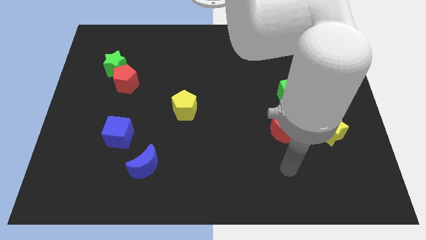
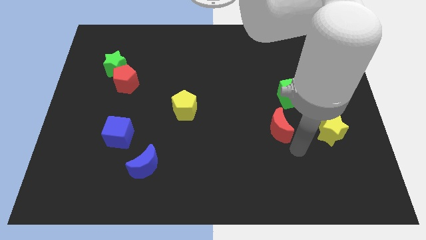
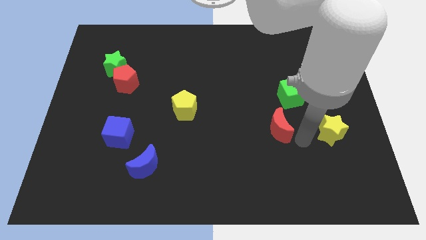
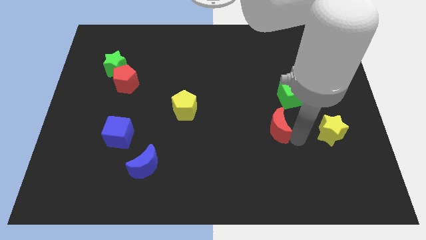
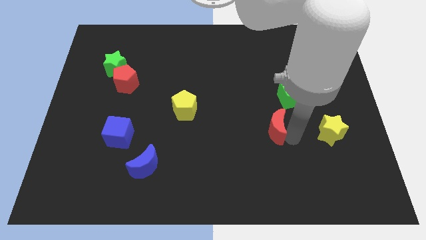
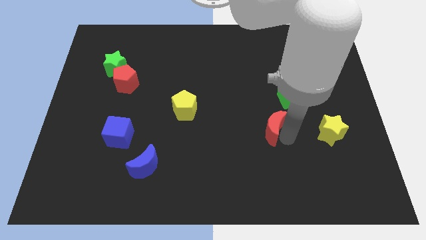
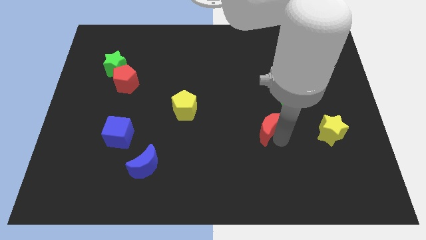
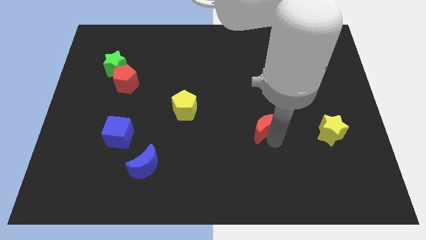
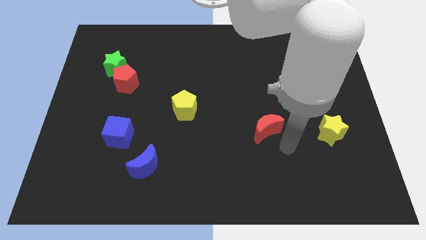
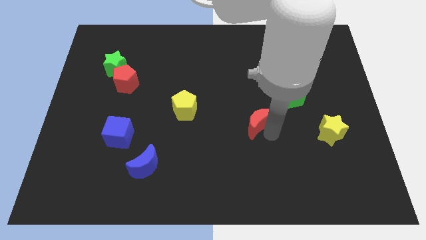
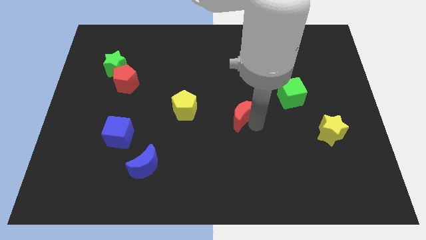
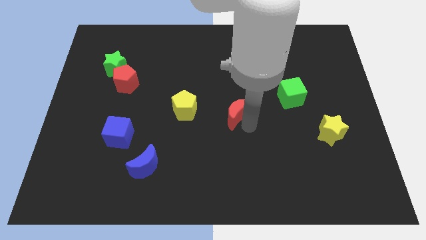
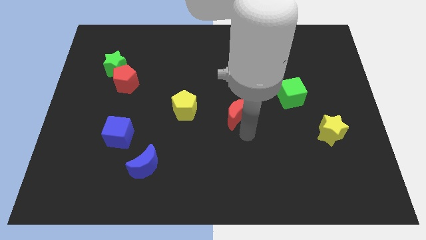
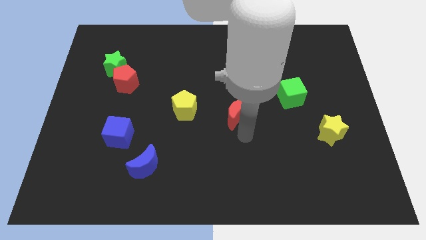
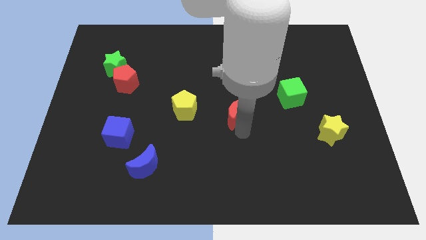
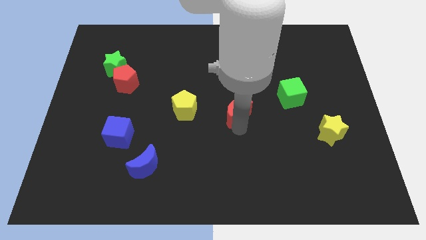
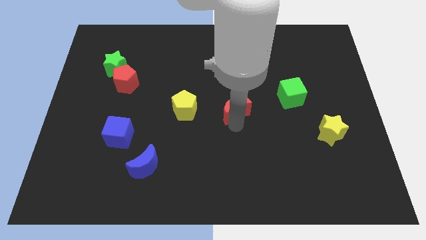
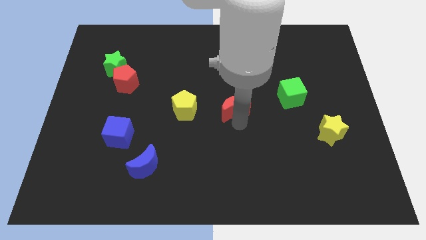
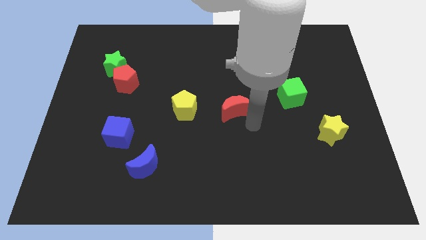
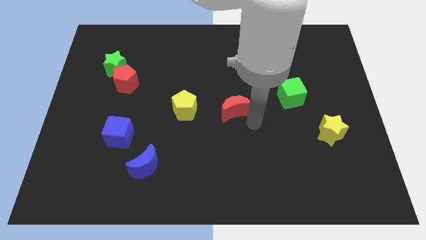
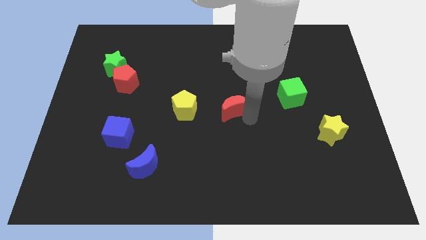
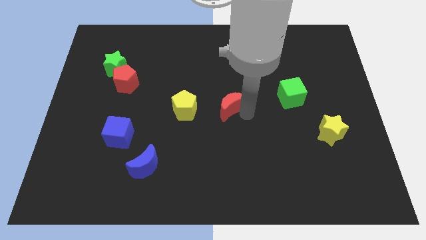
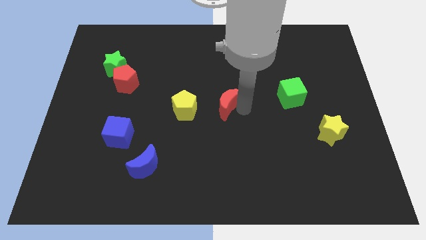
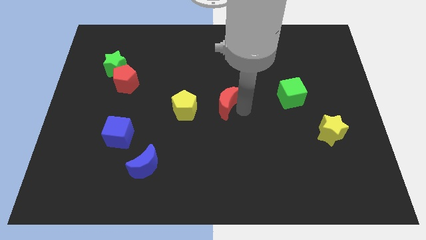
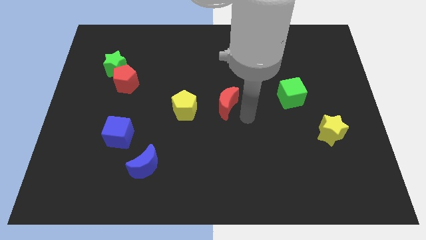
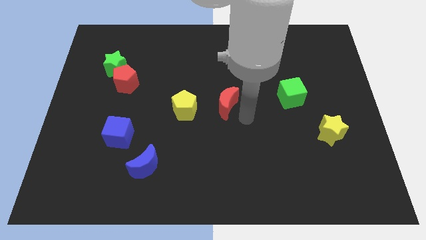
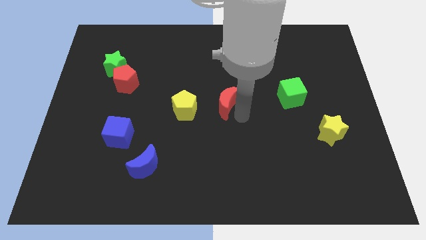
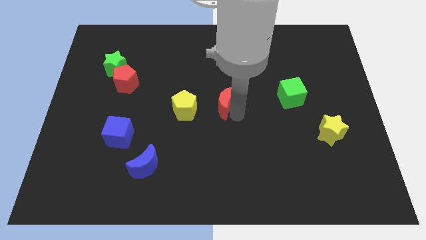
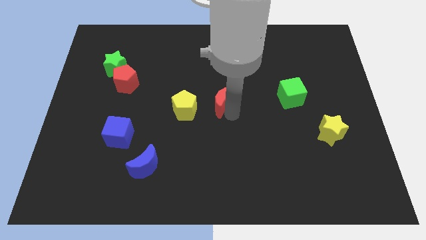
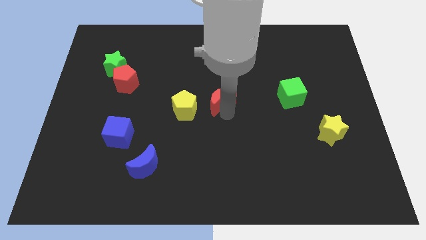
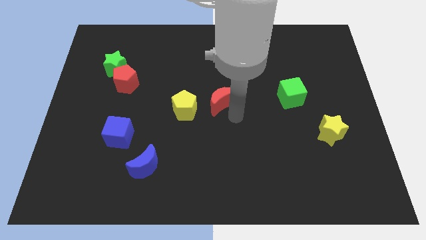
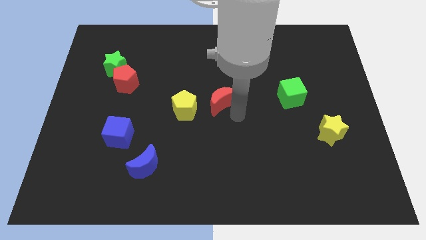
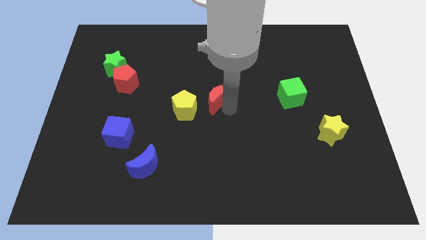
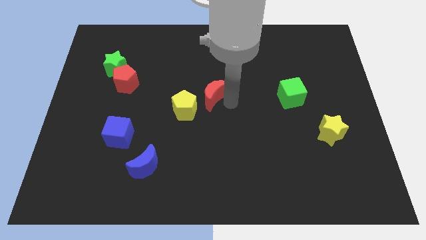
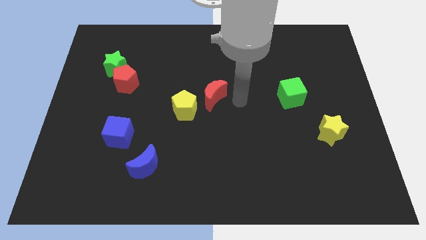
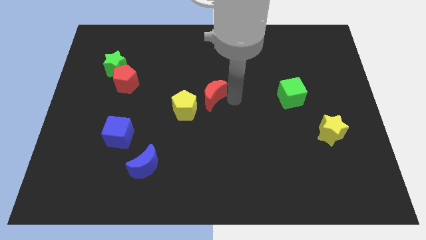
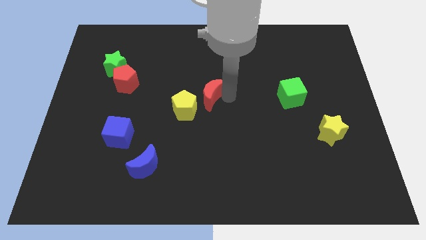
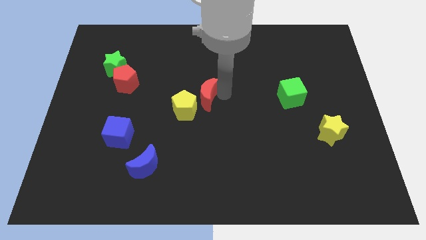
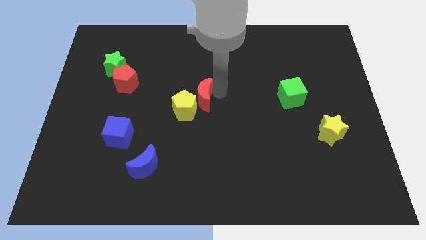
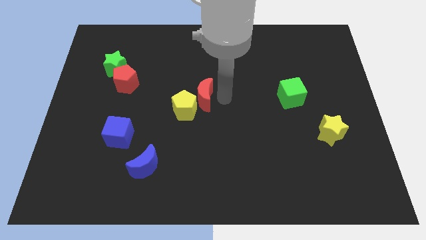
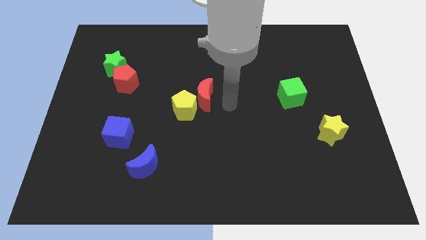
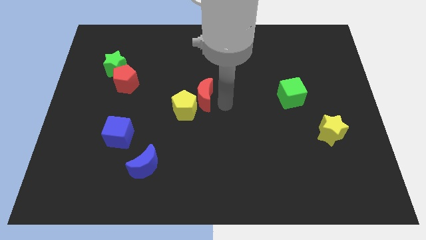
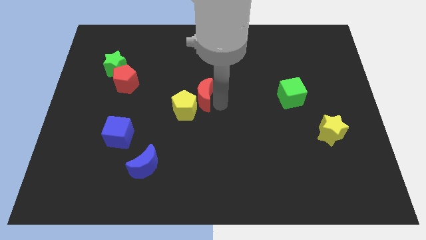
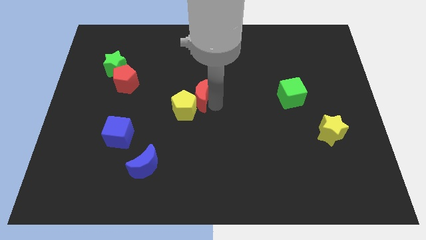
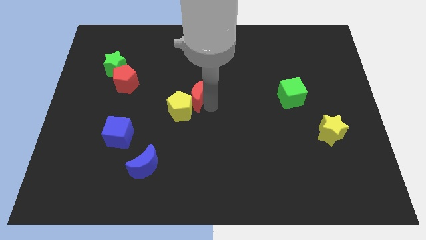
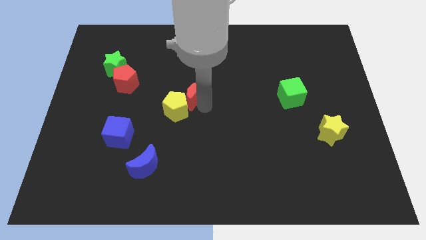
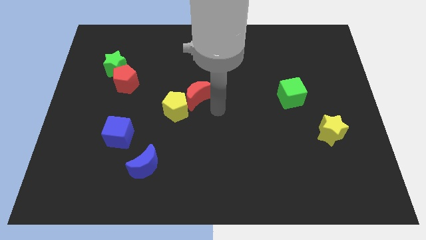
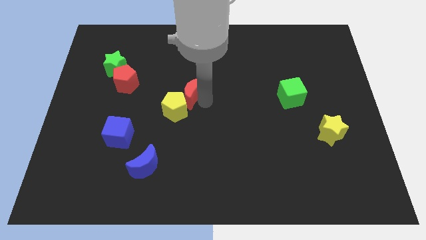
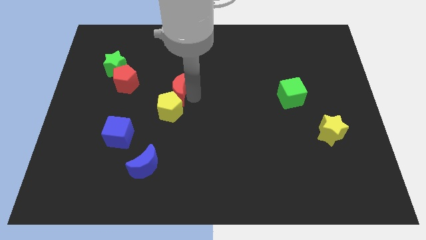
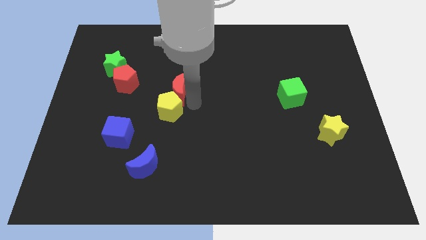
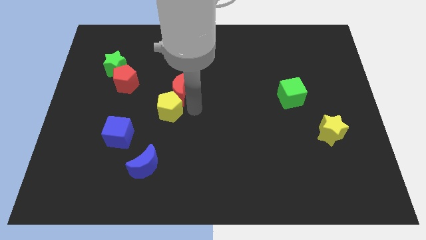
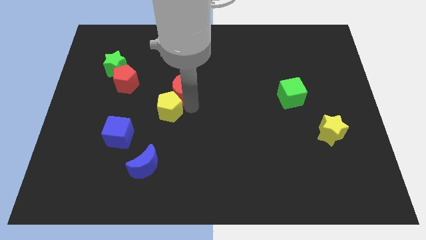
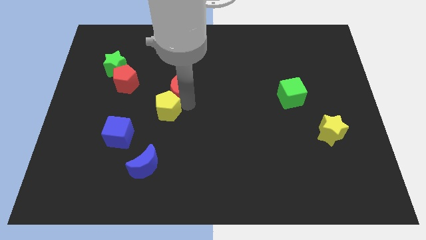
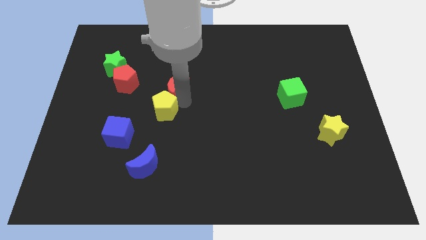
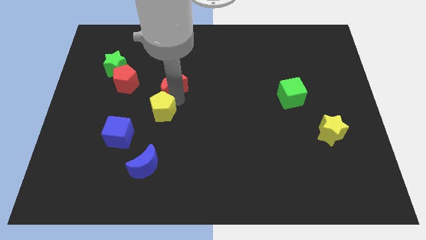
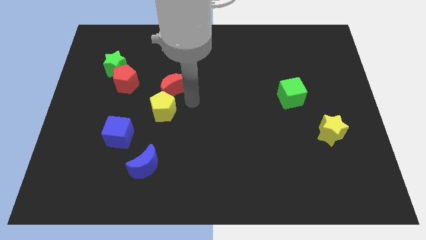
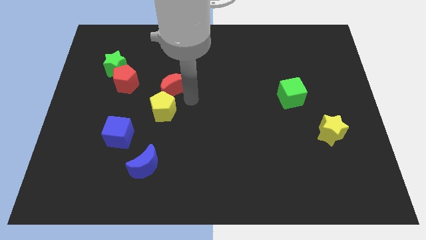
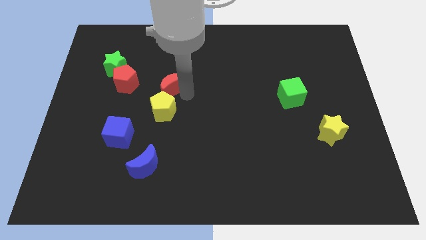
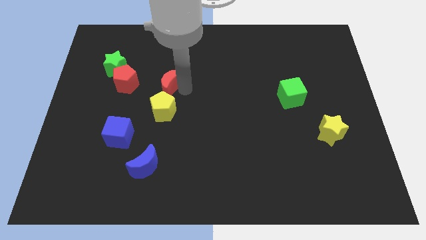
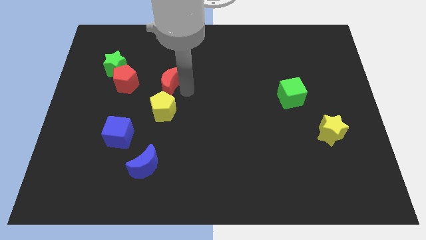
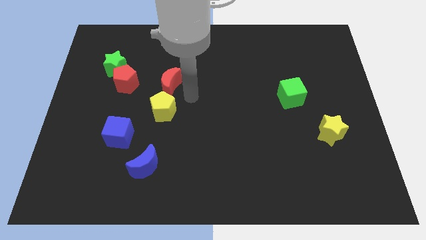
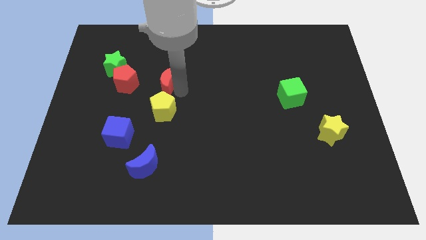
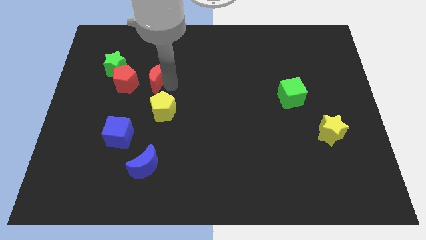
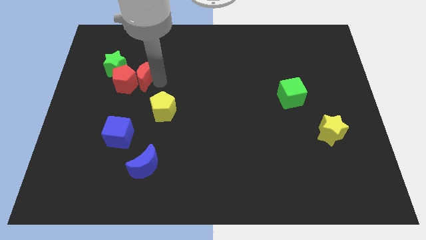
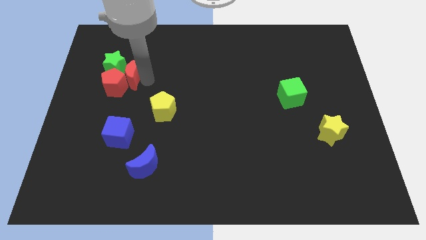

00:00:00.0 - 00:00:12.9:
slide the red moon towards the green star

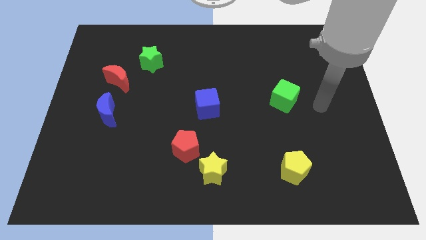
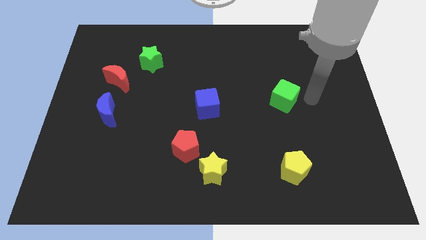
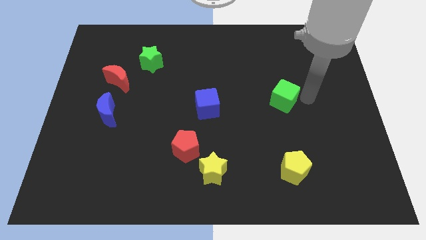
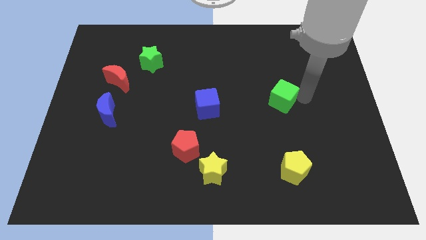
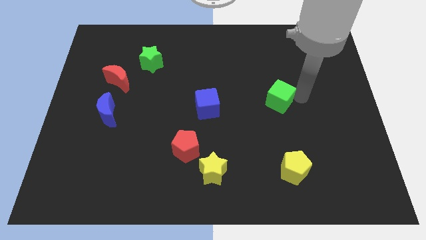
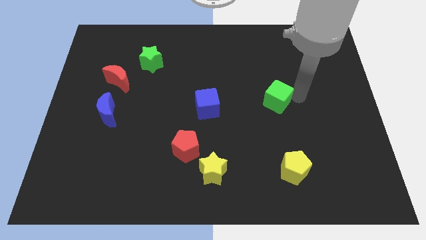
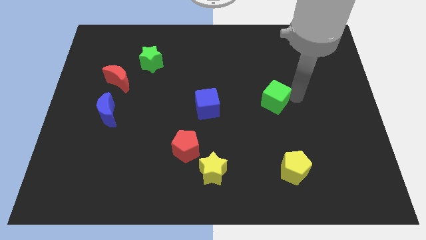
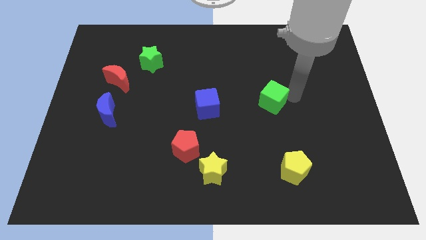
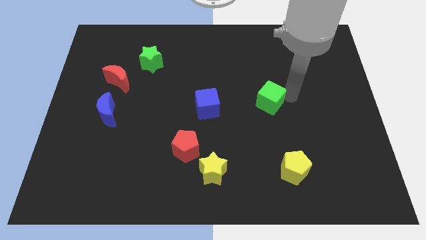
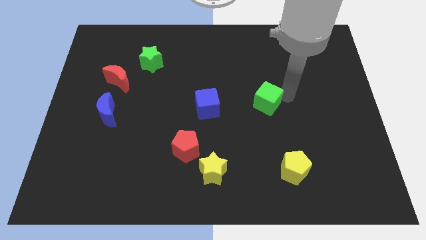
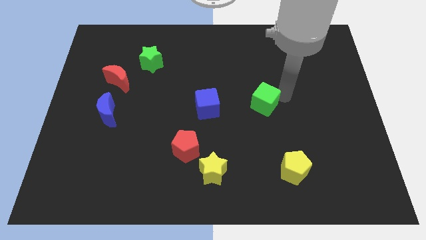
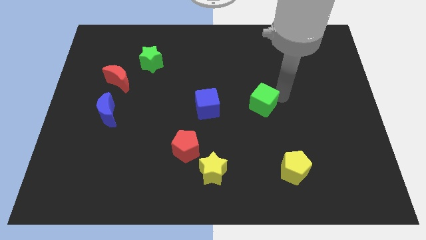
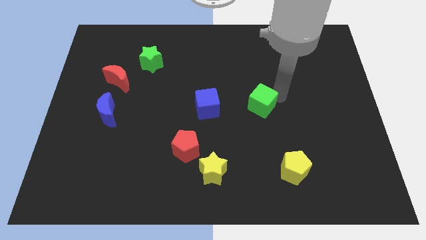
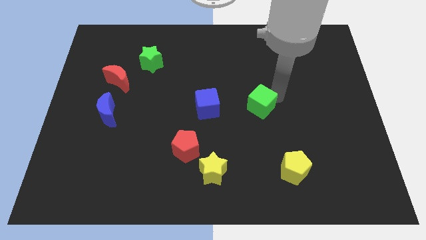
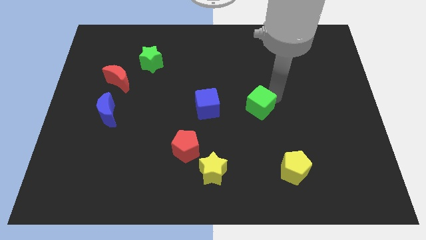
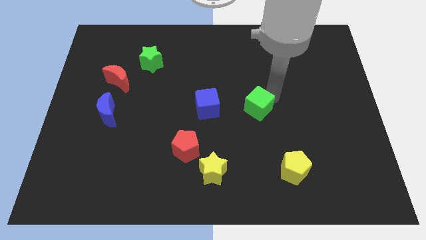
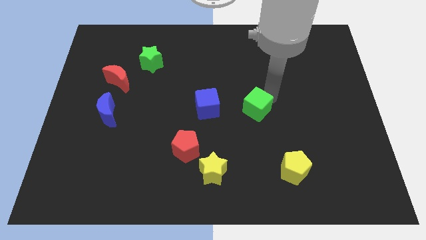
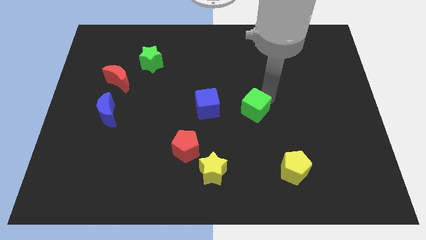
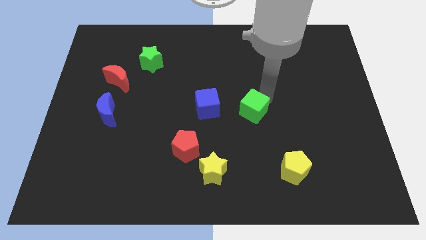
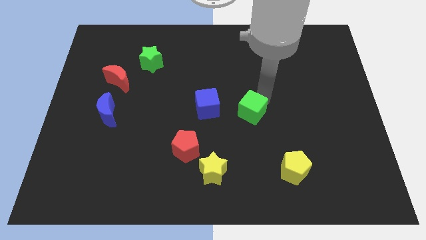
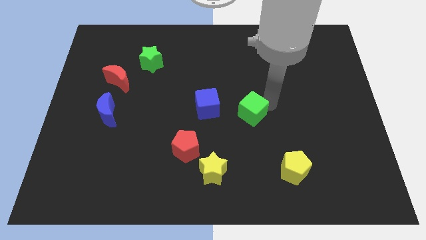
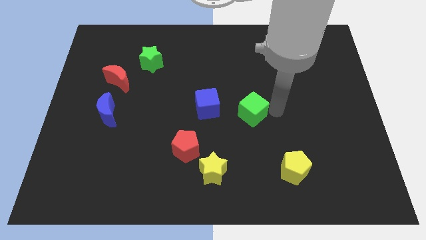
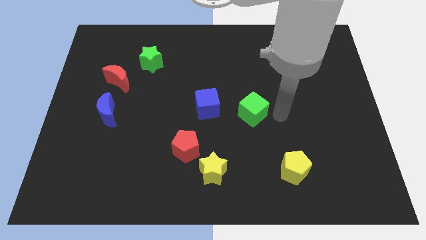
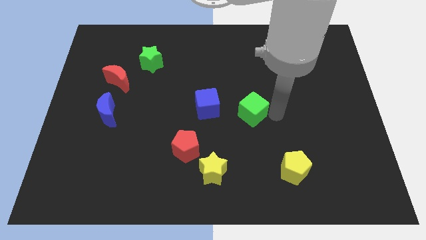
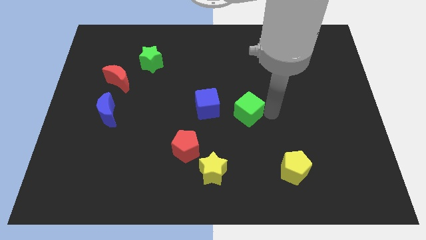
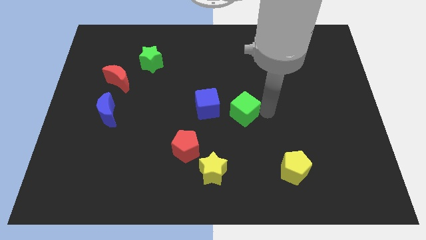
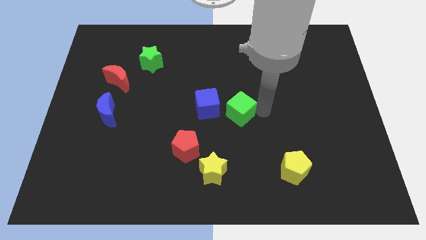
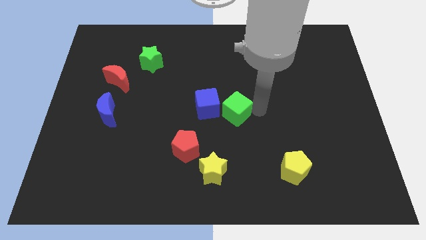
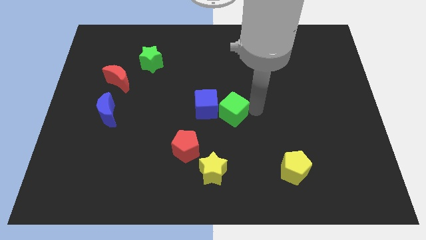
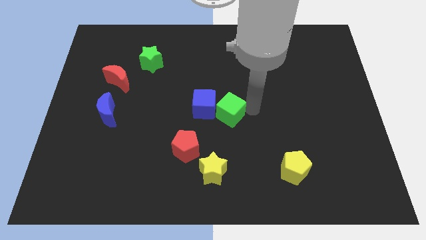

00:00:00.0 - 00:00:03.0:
slide the green cube towards the blue cube
